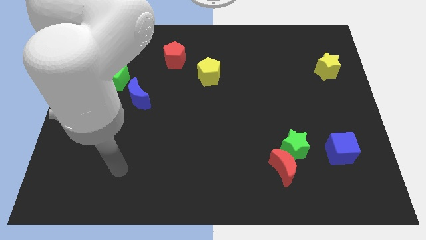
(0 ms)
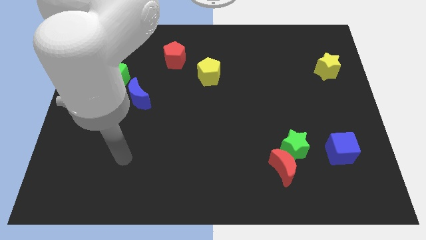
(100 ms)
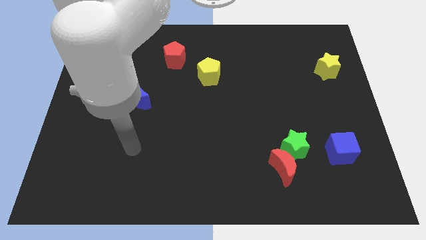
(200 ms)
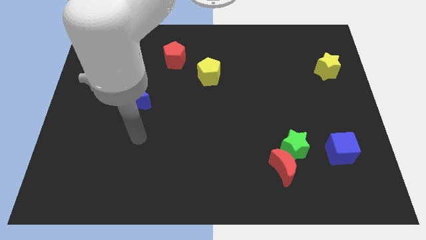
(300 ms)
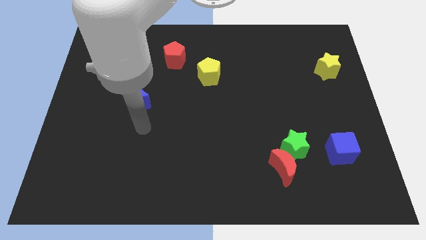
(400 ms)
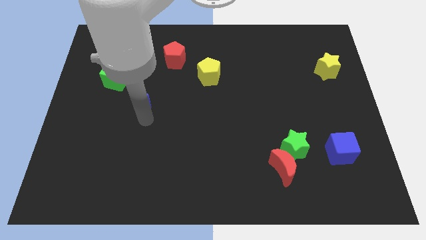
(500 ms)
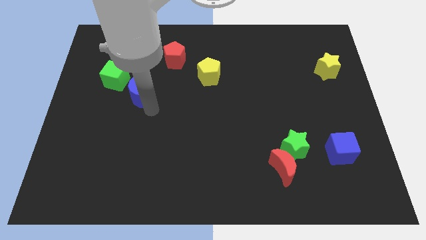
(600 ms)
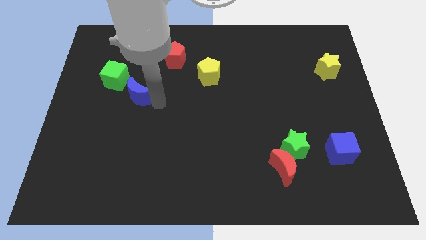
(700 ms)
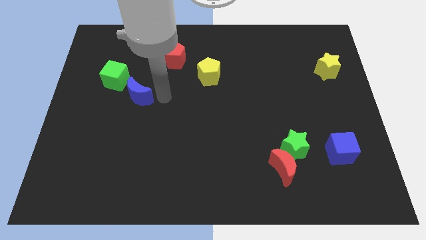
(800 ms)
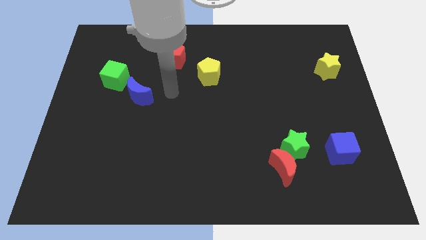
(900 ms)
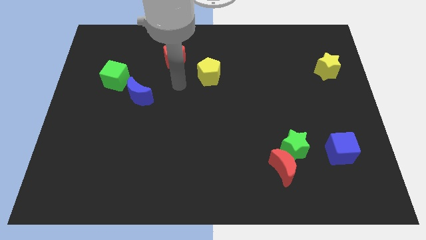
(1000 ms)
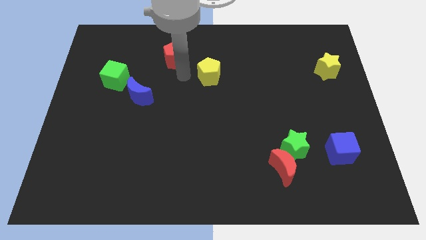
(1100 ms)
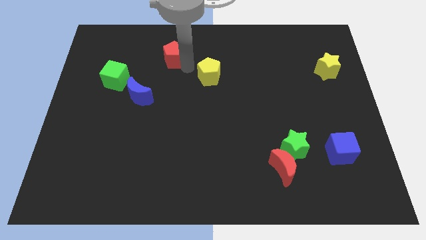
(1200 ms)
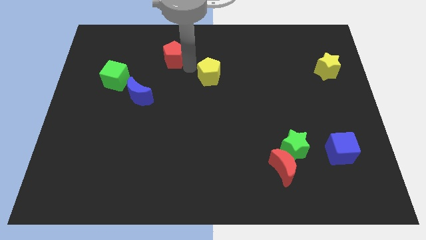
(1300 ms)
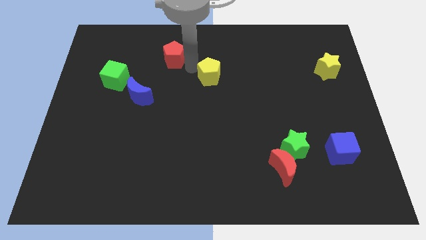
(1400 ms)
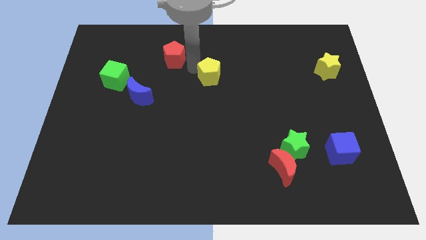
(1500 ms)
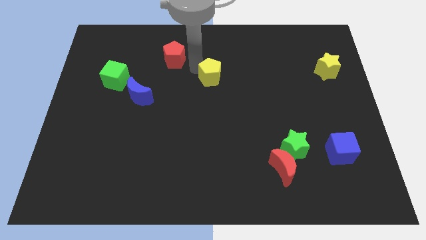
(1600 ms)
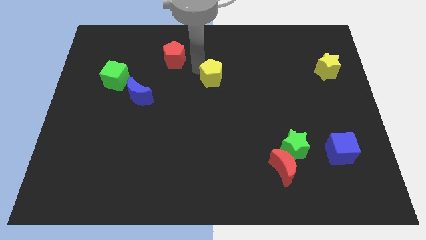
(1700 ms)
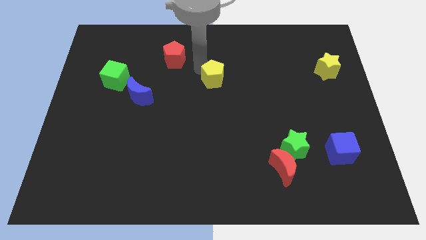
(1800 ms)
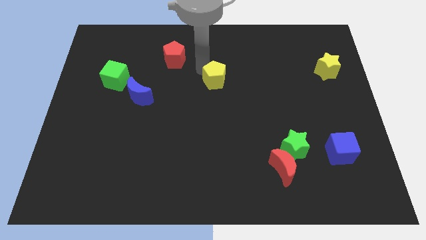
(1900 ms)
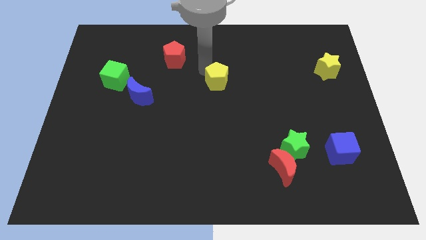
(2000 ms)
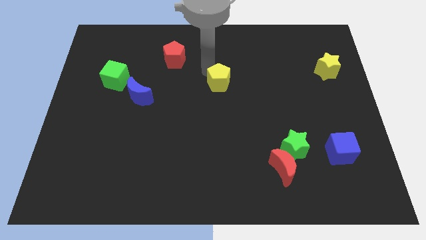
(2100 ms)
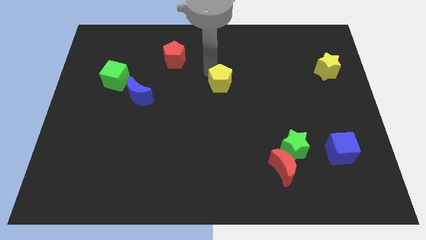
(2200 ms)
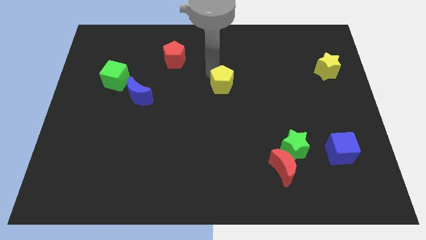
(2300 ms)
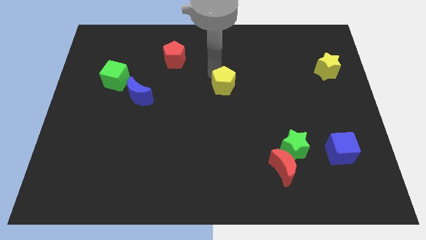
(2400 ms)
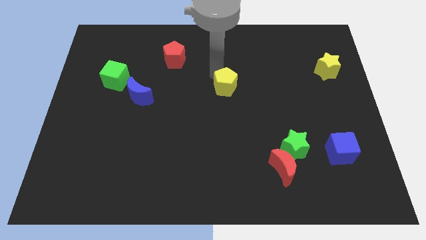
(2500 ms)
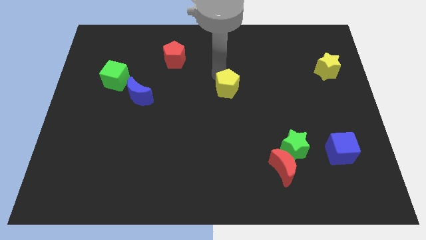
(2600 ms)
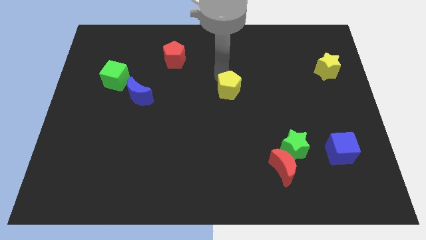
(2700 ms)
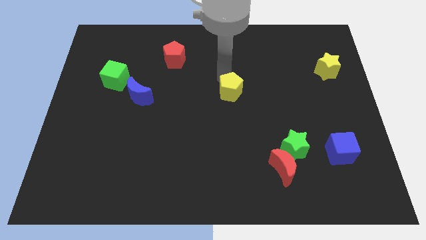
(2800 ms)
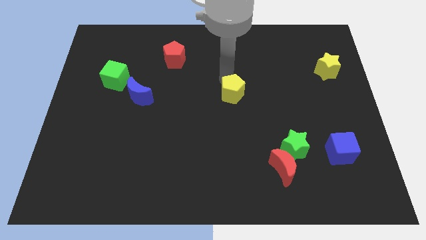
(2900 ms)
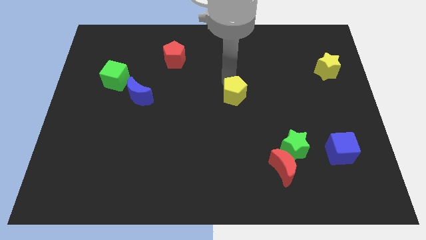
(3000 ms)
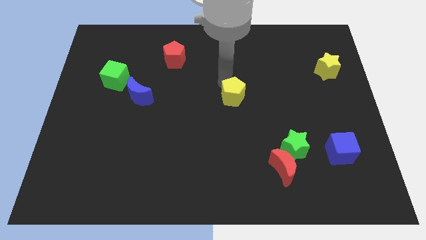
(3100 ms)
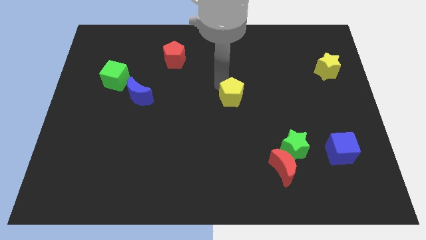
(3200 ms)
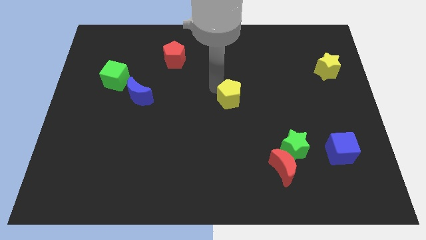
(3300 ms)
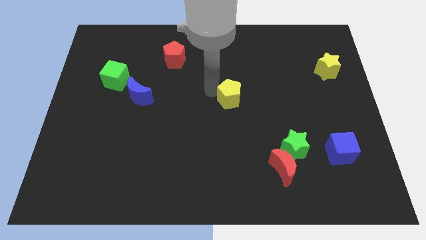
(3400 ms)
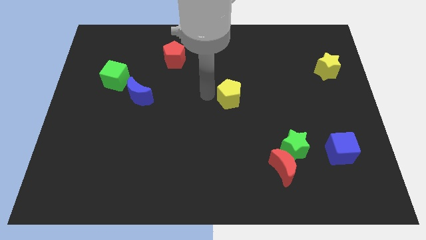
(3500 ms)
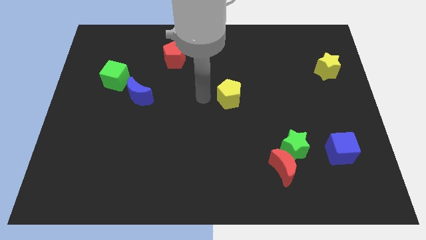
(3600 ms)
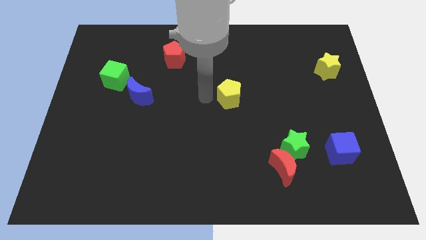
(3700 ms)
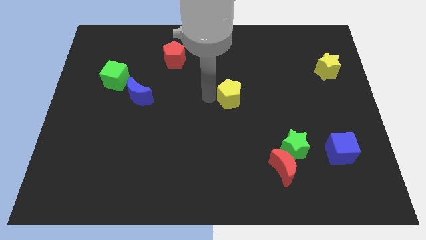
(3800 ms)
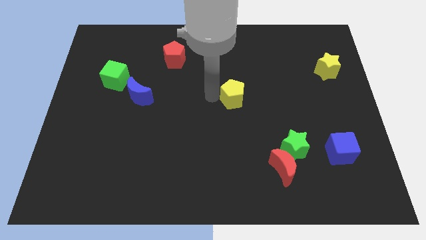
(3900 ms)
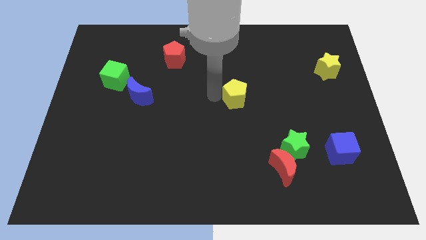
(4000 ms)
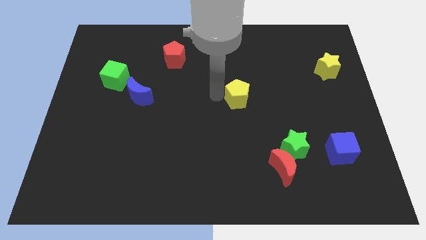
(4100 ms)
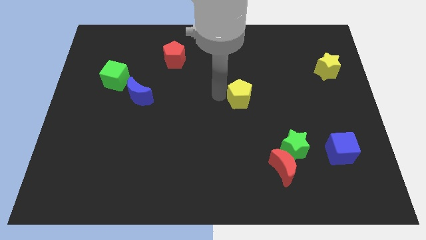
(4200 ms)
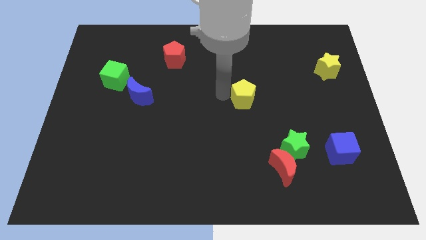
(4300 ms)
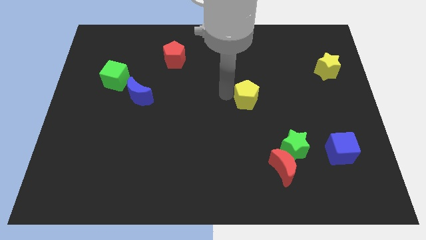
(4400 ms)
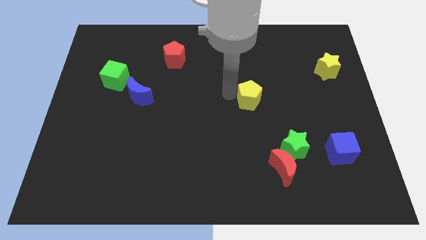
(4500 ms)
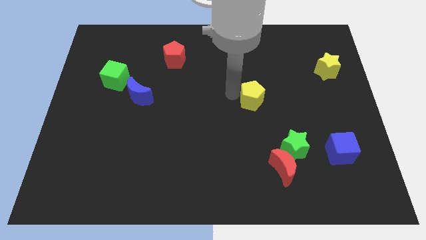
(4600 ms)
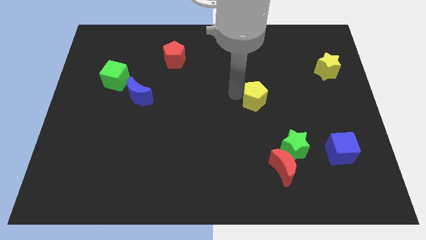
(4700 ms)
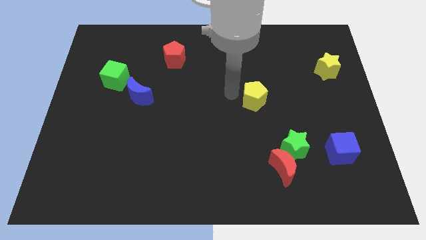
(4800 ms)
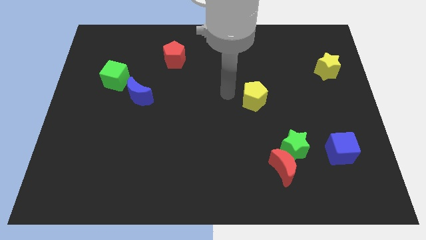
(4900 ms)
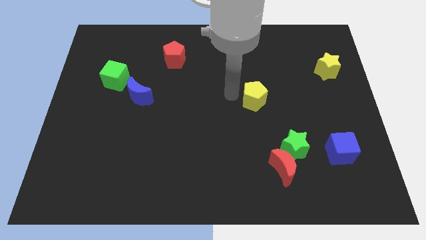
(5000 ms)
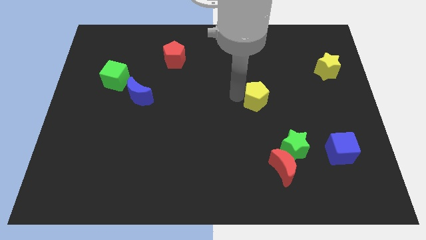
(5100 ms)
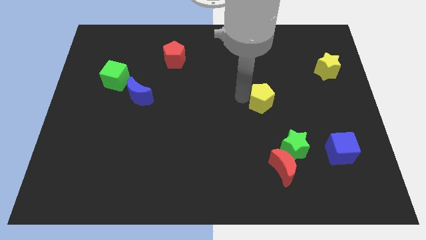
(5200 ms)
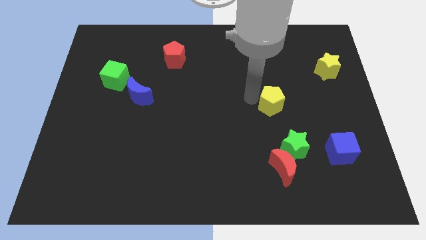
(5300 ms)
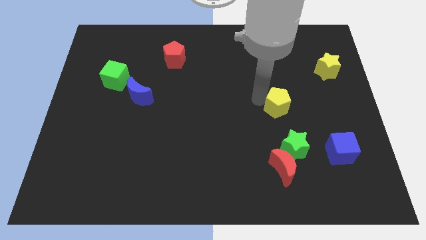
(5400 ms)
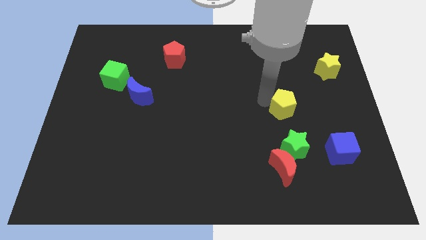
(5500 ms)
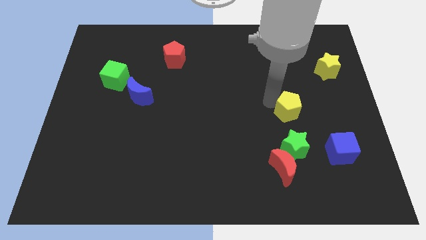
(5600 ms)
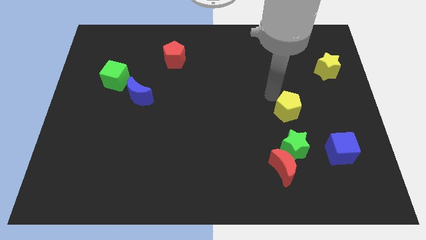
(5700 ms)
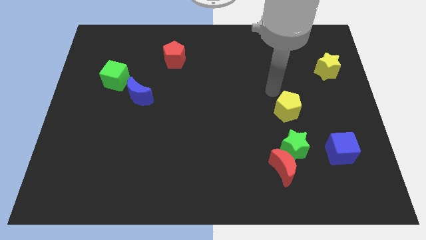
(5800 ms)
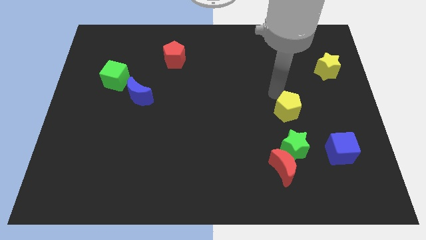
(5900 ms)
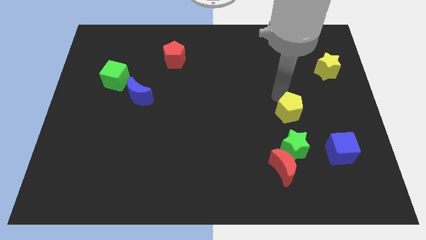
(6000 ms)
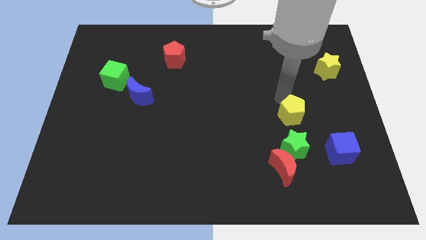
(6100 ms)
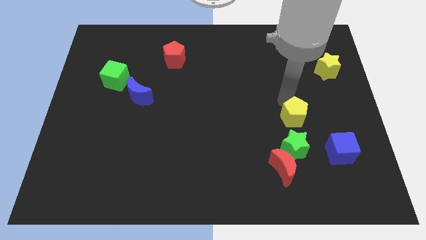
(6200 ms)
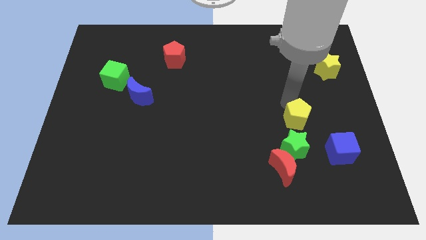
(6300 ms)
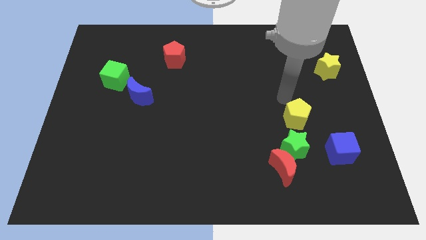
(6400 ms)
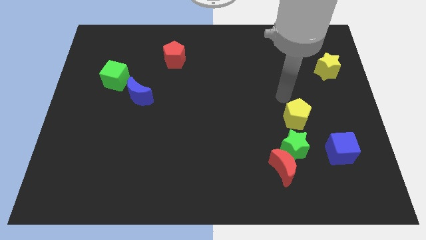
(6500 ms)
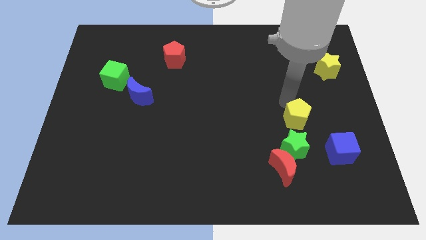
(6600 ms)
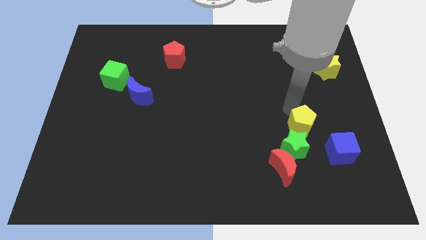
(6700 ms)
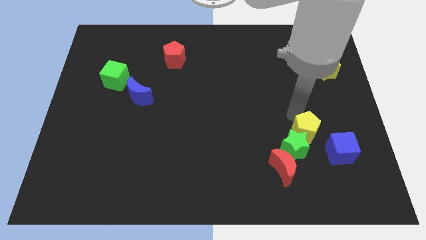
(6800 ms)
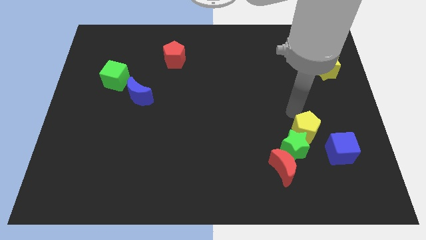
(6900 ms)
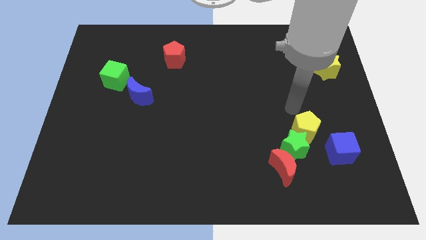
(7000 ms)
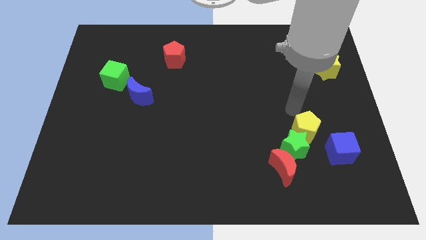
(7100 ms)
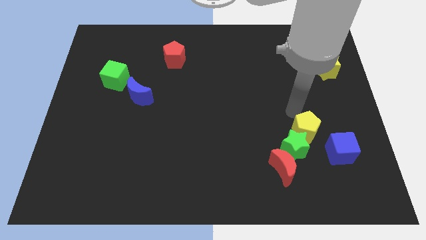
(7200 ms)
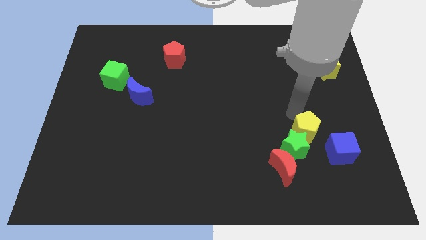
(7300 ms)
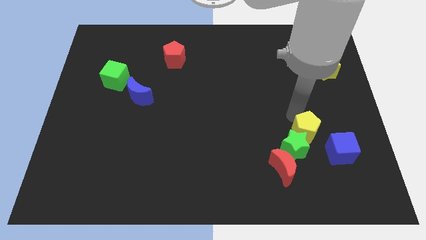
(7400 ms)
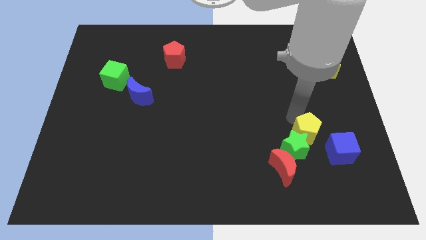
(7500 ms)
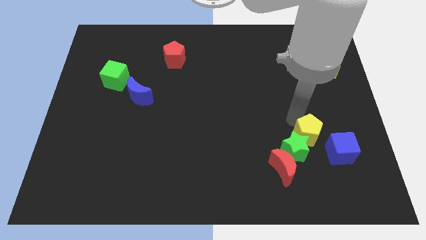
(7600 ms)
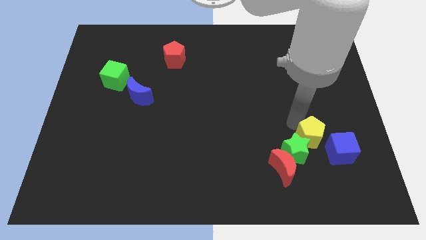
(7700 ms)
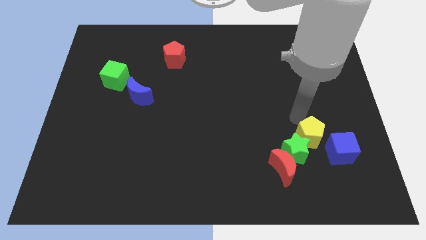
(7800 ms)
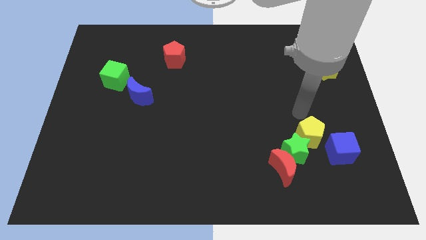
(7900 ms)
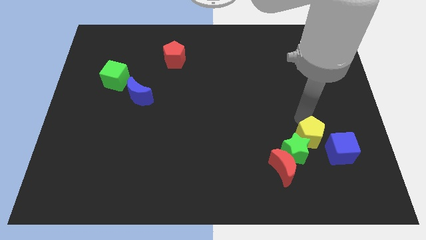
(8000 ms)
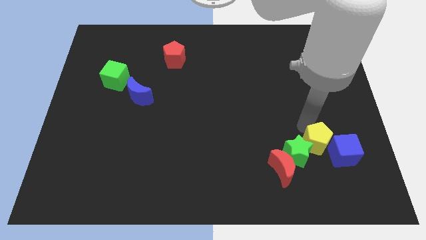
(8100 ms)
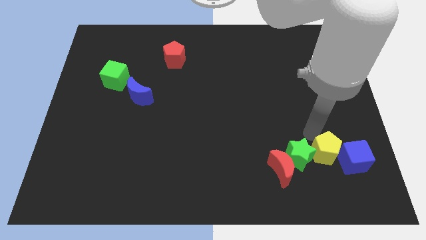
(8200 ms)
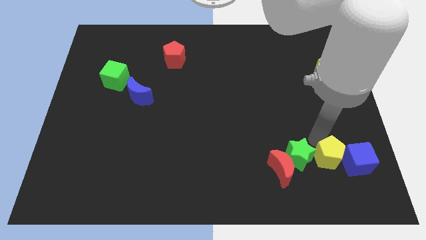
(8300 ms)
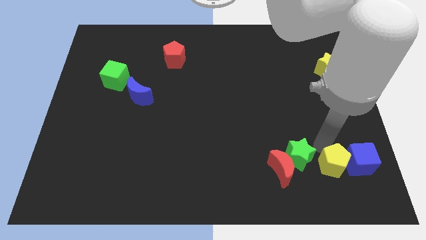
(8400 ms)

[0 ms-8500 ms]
put the yellow pentagon to the bottom left side of the blue cube
